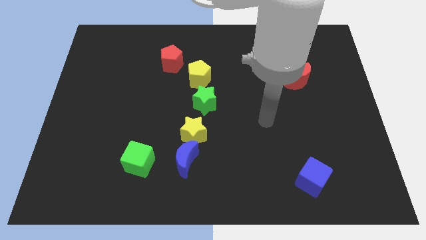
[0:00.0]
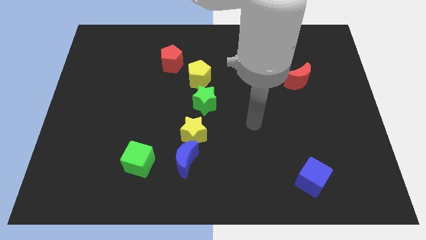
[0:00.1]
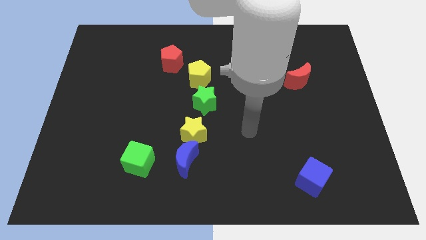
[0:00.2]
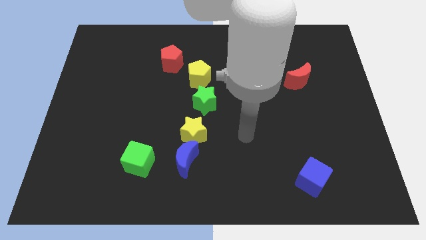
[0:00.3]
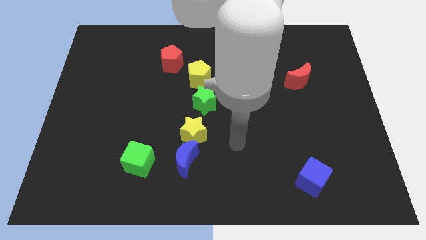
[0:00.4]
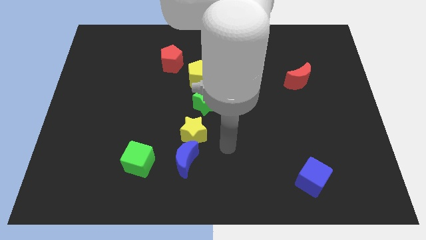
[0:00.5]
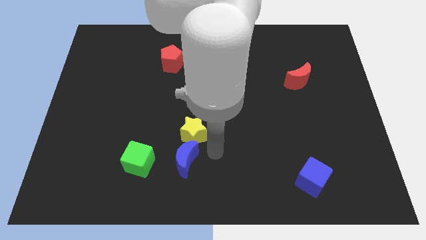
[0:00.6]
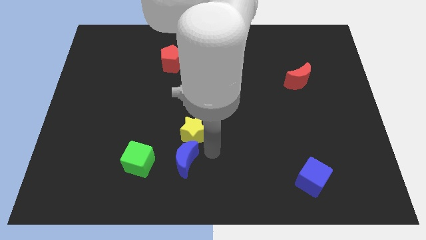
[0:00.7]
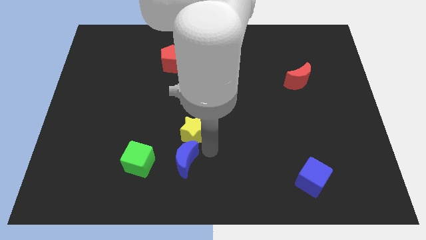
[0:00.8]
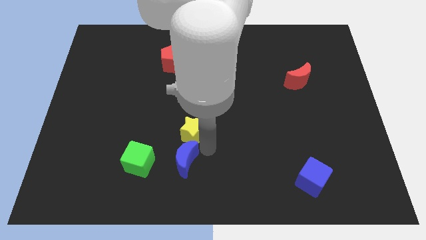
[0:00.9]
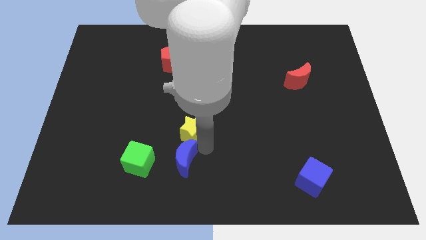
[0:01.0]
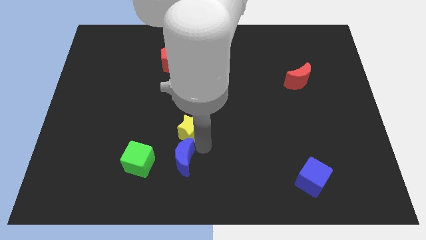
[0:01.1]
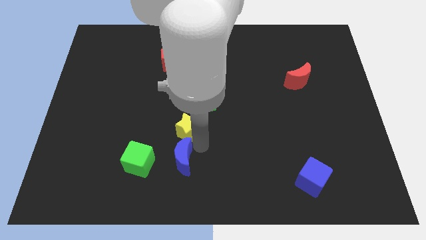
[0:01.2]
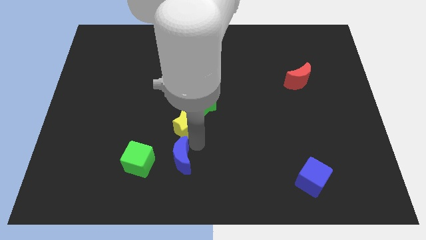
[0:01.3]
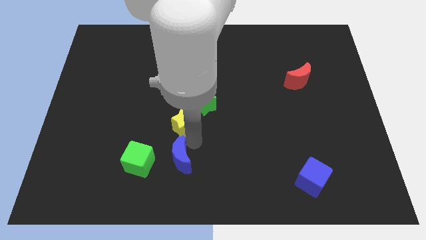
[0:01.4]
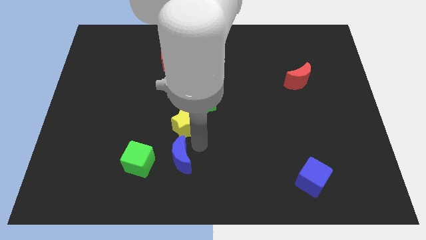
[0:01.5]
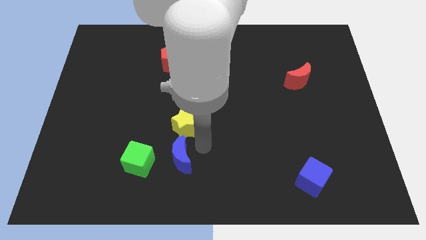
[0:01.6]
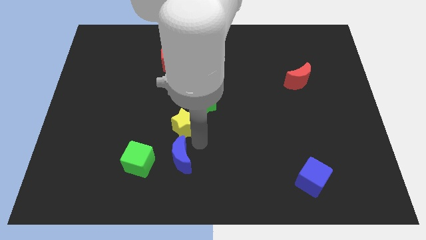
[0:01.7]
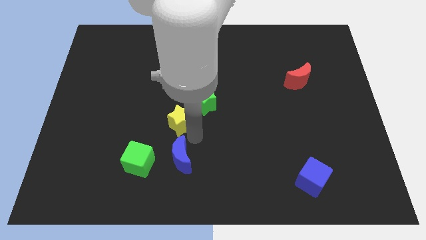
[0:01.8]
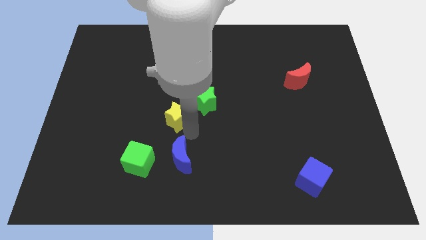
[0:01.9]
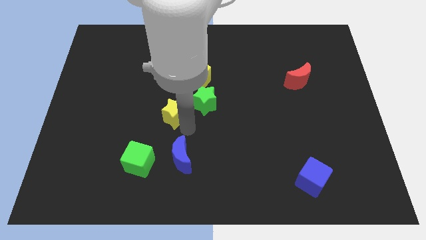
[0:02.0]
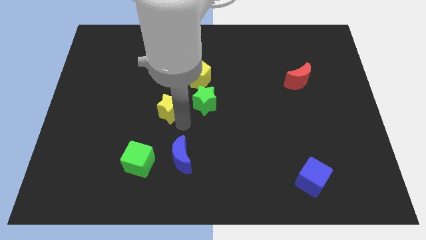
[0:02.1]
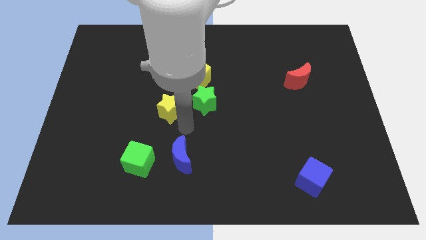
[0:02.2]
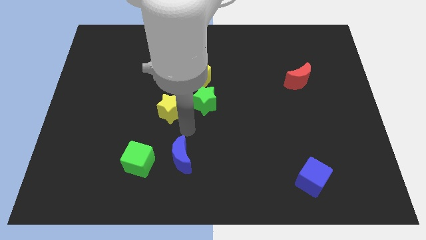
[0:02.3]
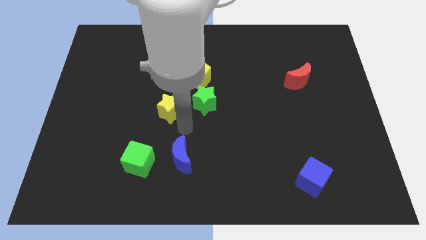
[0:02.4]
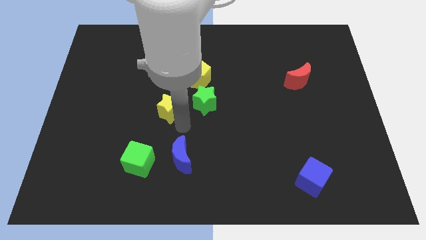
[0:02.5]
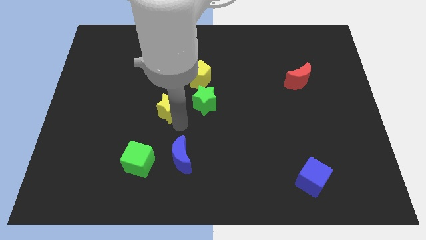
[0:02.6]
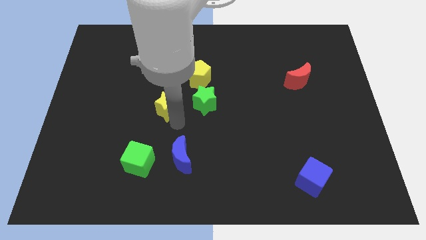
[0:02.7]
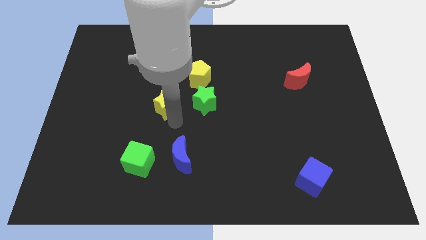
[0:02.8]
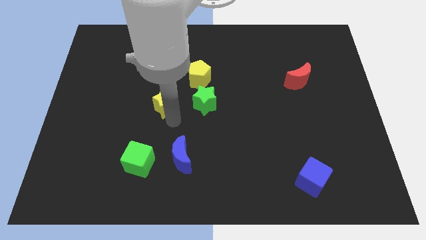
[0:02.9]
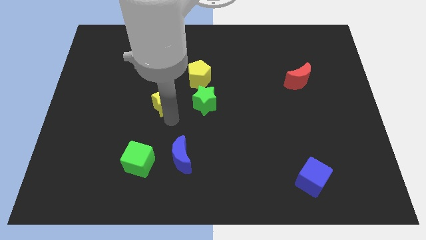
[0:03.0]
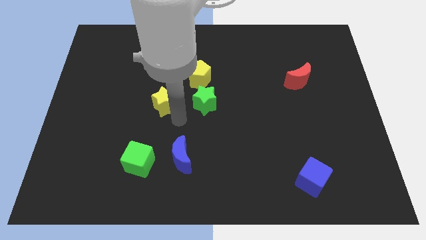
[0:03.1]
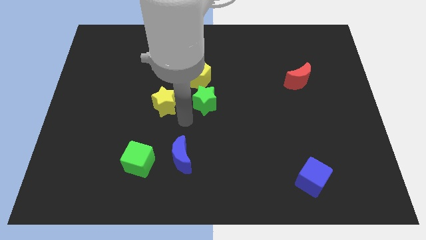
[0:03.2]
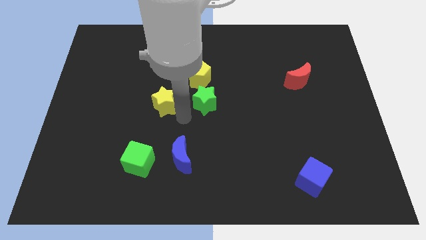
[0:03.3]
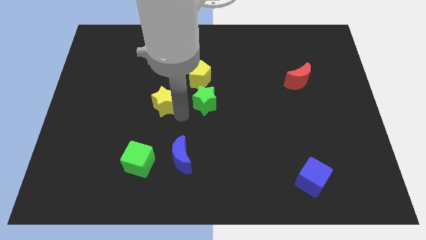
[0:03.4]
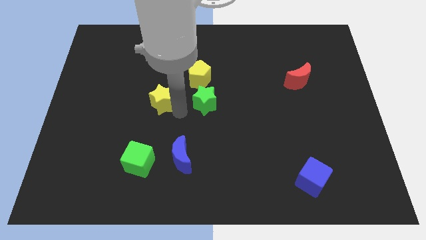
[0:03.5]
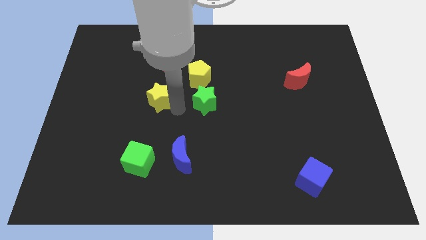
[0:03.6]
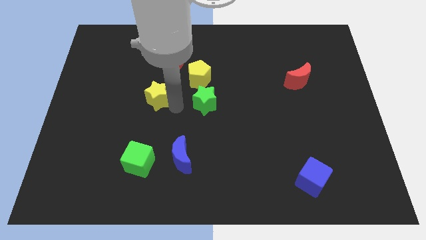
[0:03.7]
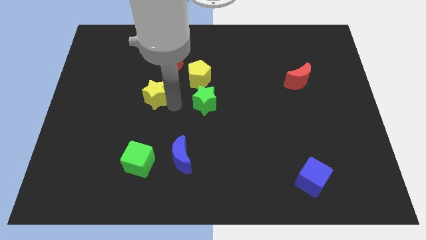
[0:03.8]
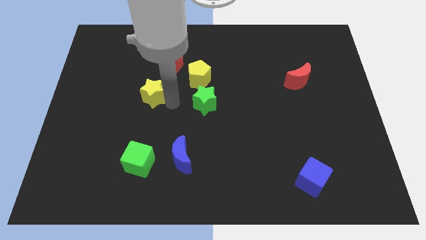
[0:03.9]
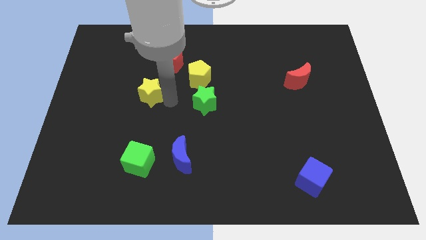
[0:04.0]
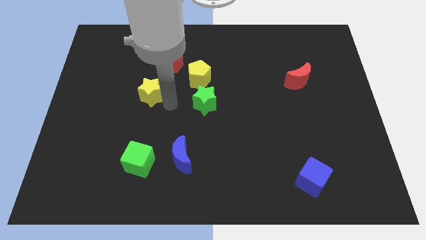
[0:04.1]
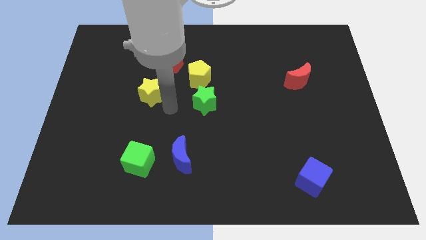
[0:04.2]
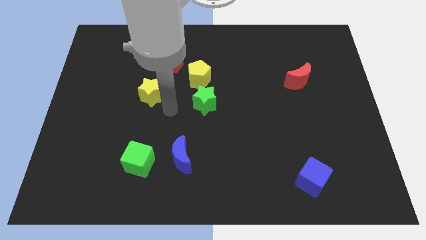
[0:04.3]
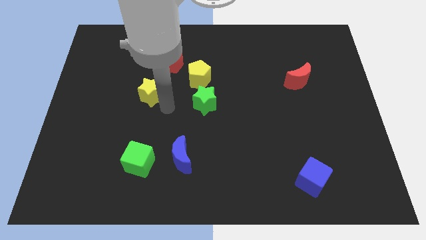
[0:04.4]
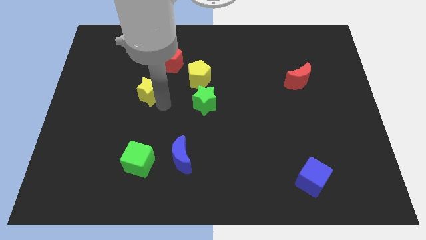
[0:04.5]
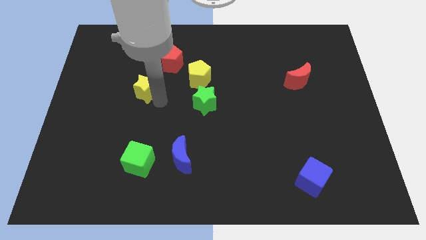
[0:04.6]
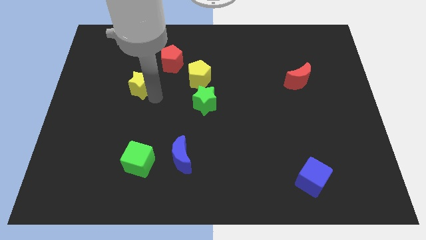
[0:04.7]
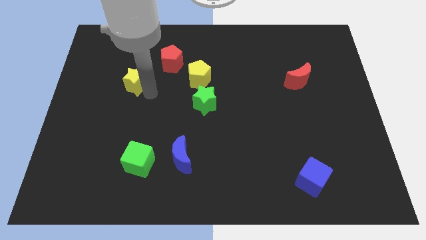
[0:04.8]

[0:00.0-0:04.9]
move the yellow star diagonally up and to the left

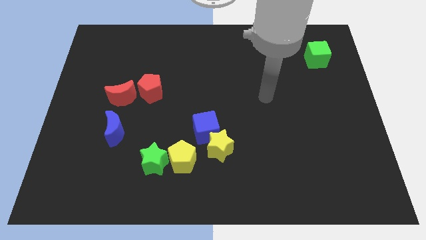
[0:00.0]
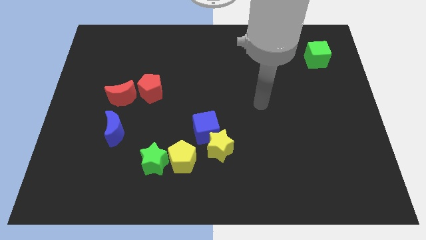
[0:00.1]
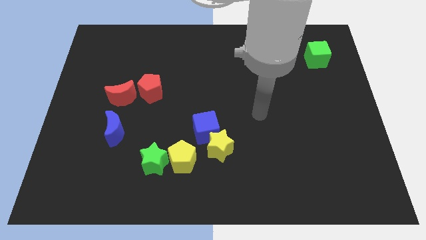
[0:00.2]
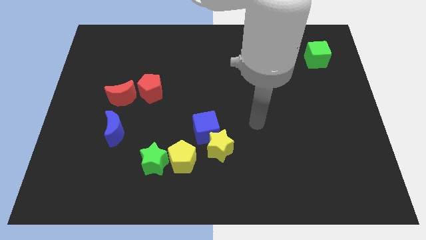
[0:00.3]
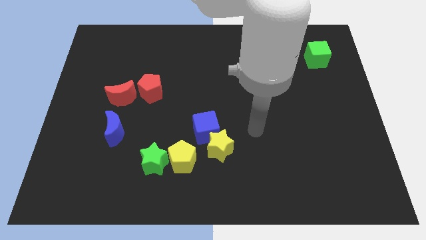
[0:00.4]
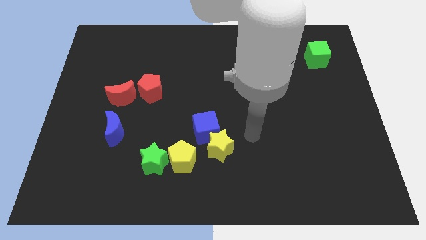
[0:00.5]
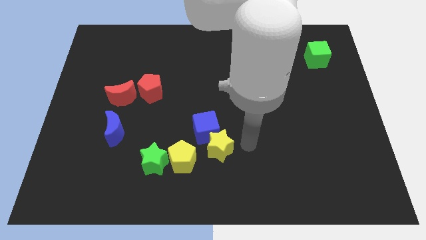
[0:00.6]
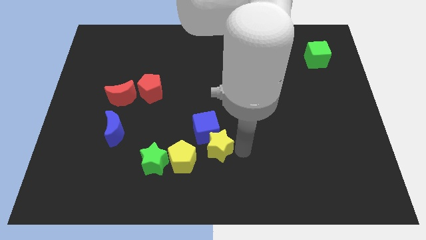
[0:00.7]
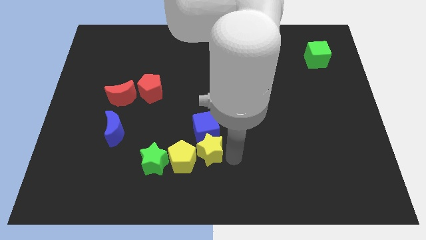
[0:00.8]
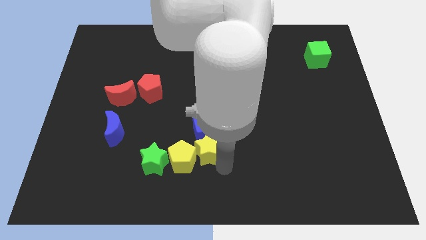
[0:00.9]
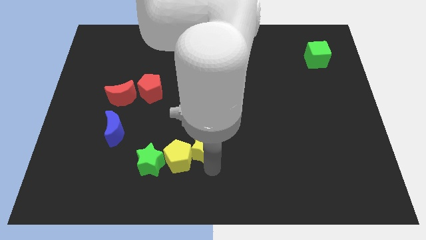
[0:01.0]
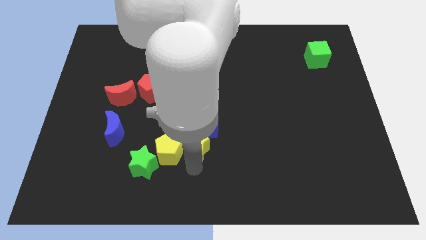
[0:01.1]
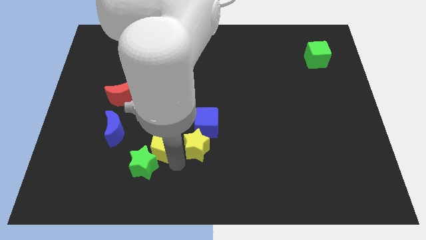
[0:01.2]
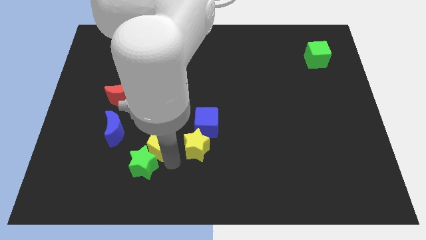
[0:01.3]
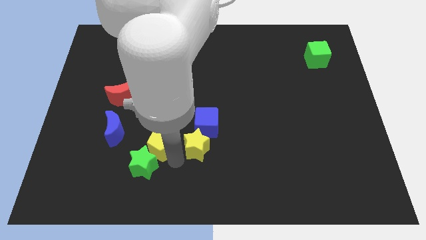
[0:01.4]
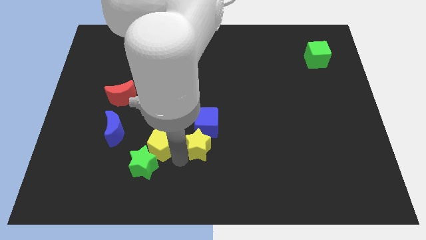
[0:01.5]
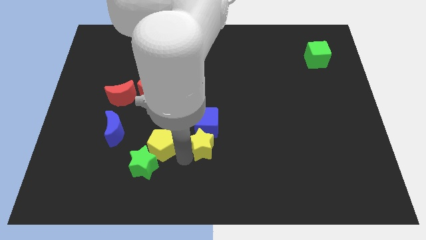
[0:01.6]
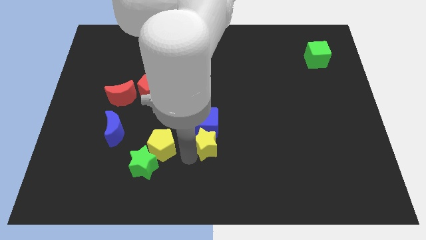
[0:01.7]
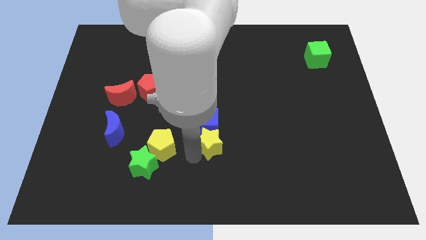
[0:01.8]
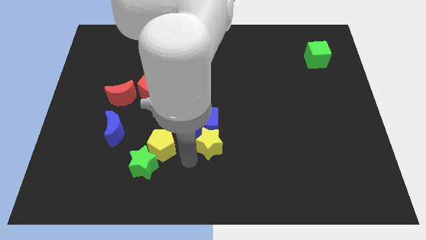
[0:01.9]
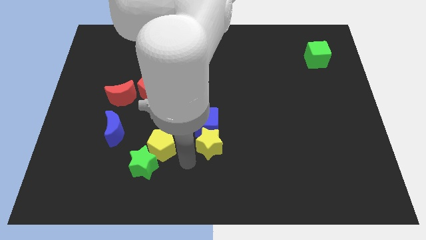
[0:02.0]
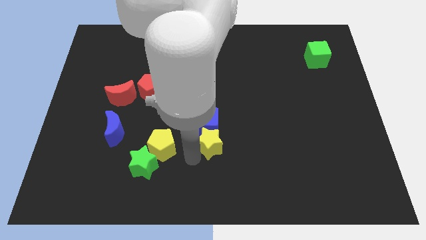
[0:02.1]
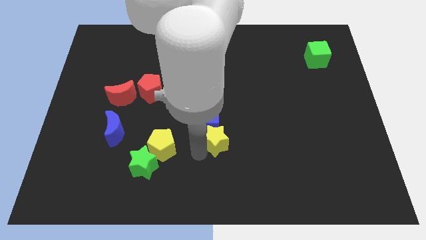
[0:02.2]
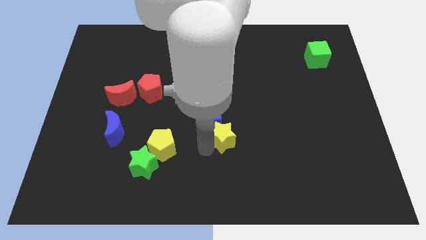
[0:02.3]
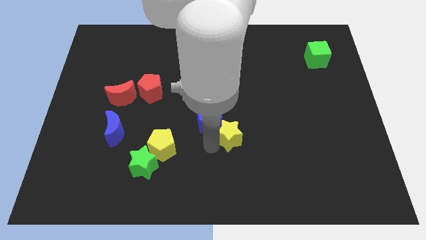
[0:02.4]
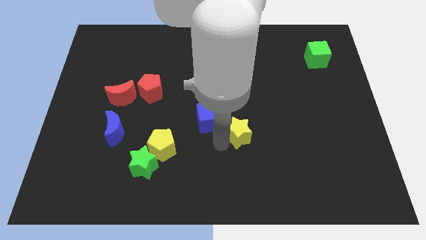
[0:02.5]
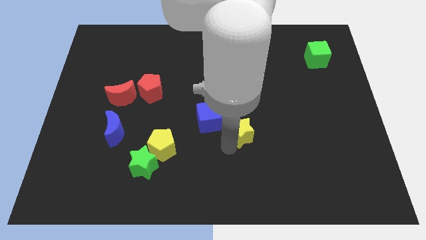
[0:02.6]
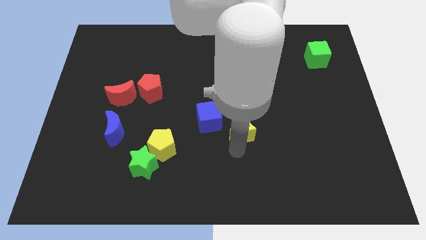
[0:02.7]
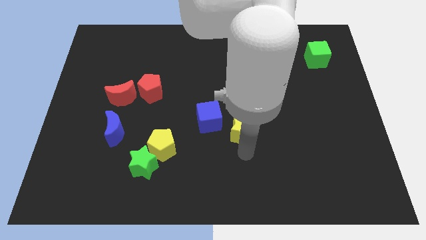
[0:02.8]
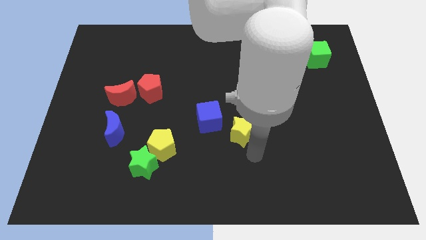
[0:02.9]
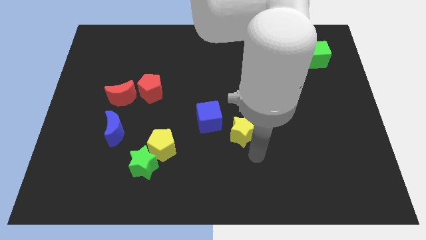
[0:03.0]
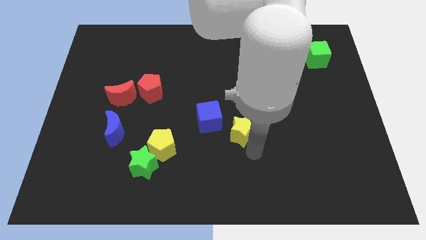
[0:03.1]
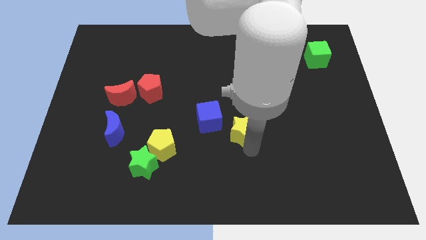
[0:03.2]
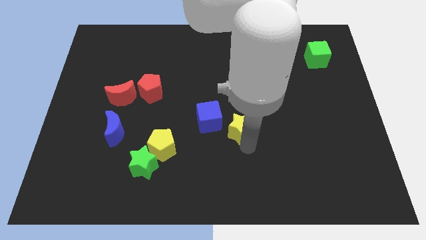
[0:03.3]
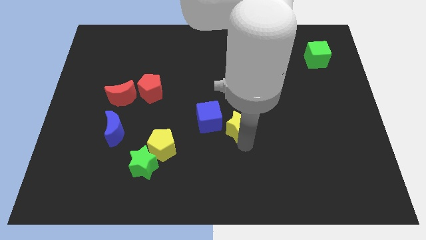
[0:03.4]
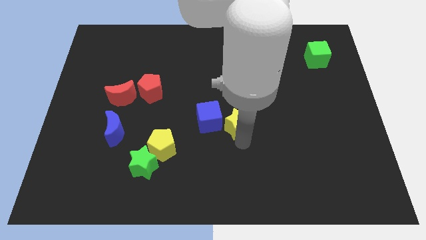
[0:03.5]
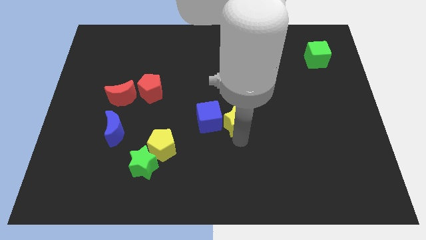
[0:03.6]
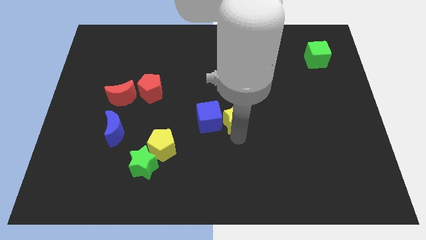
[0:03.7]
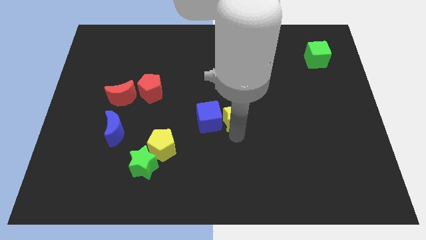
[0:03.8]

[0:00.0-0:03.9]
slightly slide the yellow star up
